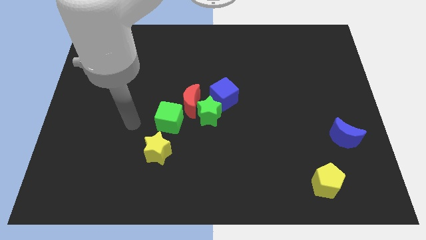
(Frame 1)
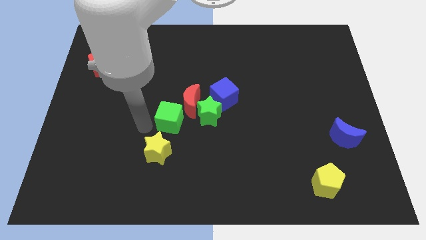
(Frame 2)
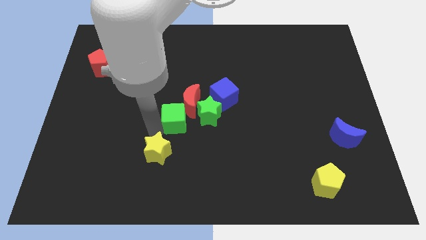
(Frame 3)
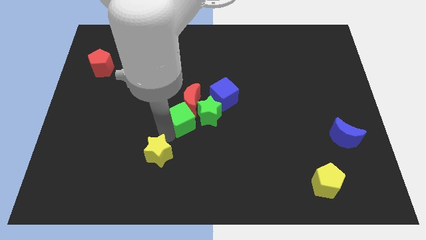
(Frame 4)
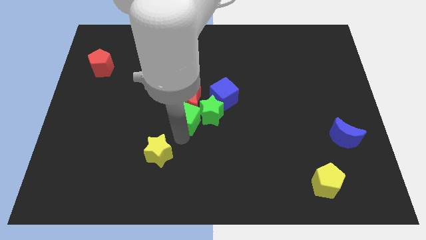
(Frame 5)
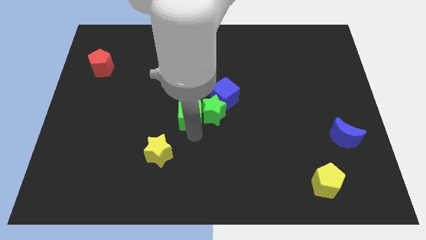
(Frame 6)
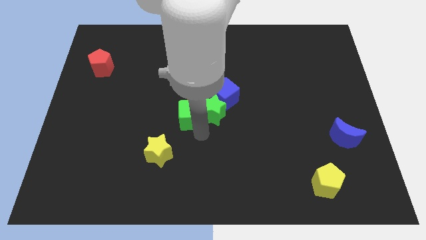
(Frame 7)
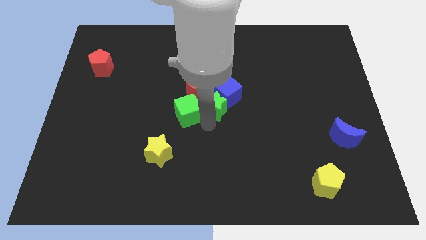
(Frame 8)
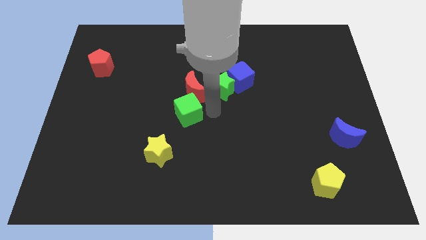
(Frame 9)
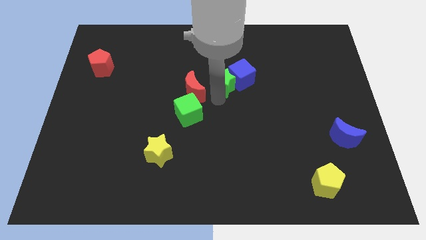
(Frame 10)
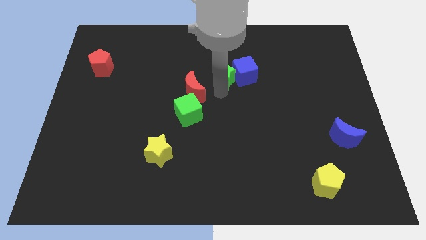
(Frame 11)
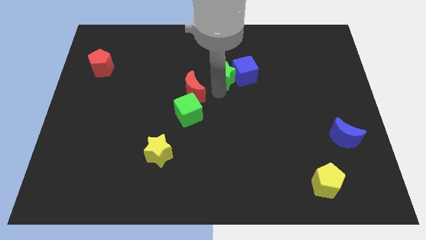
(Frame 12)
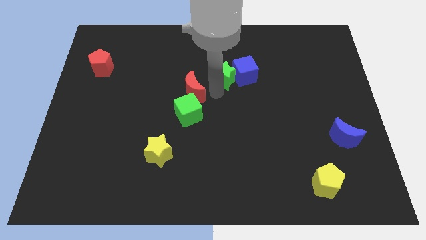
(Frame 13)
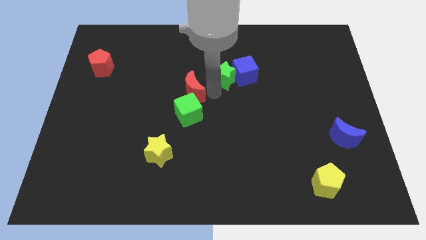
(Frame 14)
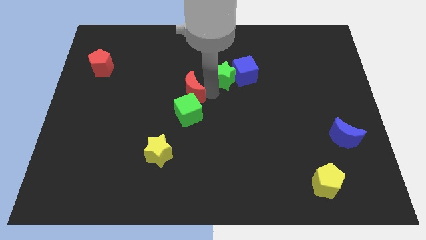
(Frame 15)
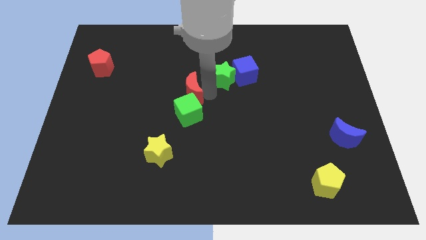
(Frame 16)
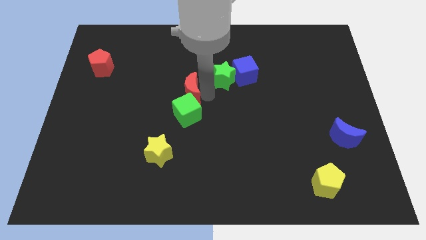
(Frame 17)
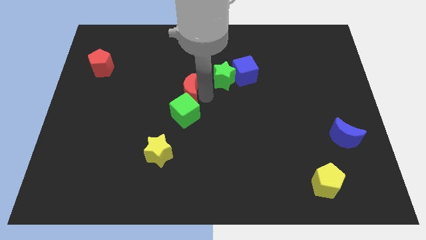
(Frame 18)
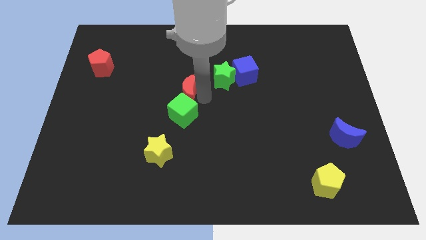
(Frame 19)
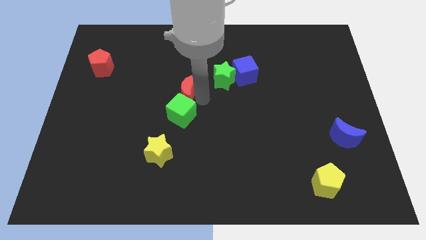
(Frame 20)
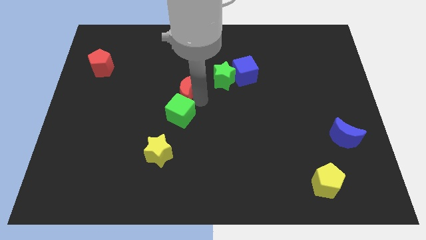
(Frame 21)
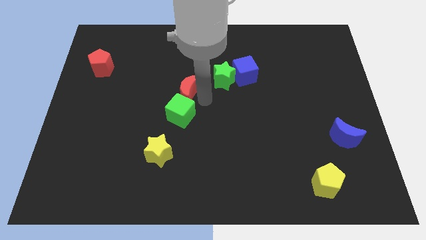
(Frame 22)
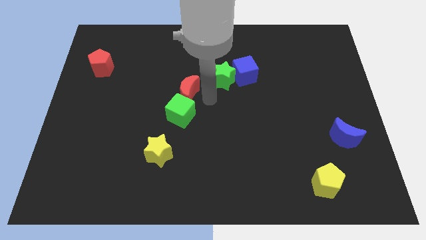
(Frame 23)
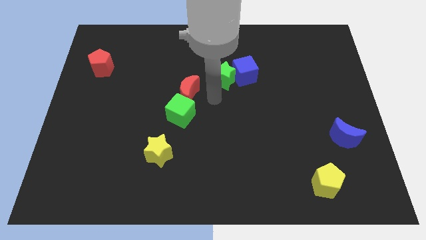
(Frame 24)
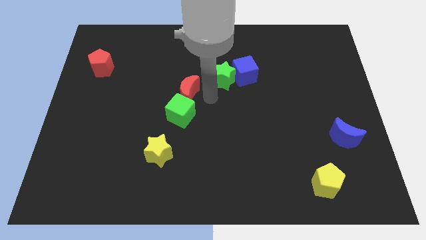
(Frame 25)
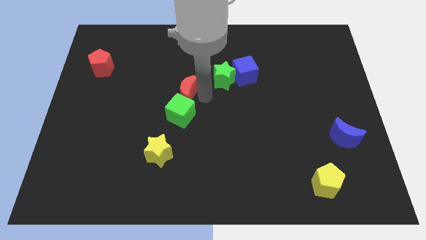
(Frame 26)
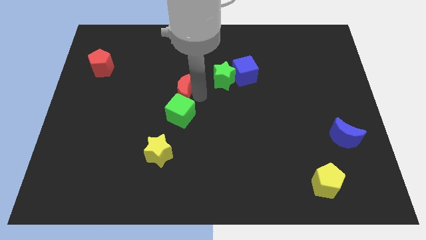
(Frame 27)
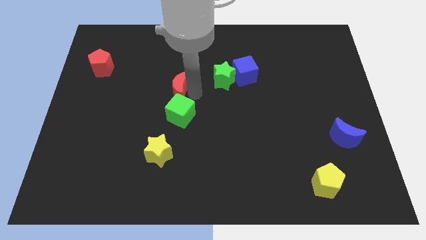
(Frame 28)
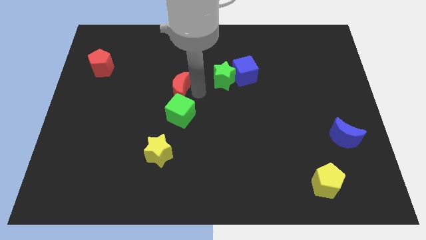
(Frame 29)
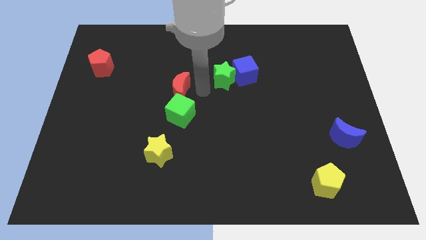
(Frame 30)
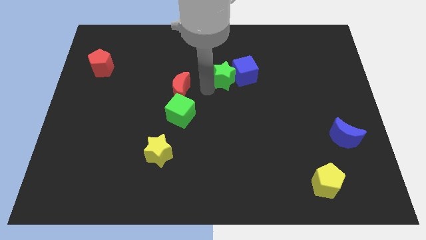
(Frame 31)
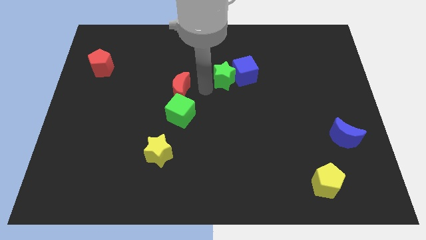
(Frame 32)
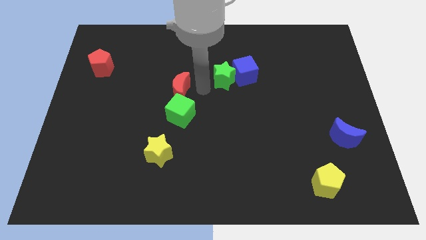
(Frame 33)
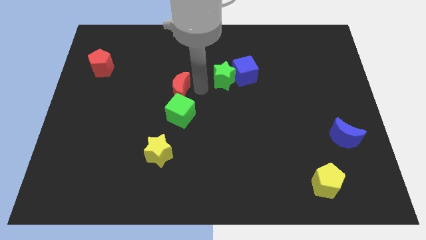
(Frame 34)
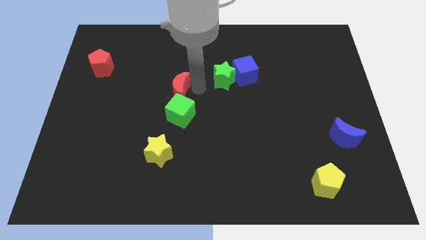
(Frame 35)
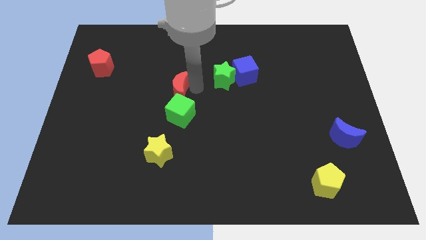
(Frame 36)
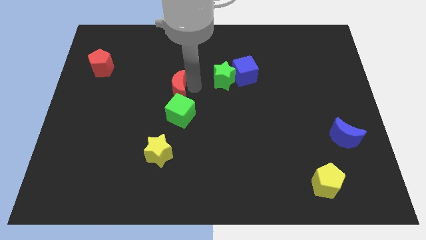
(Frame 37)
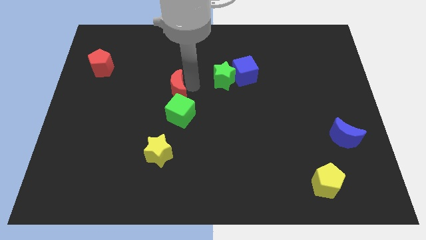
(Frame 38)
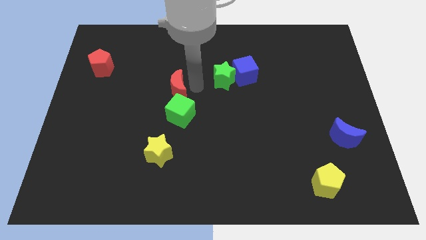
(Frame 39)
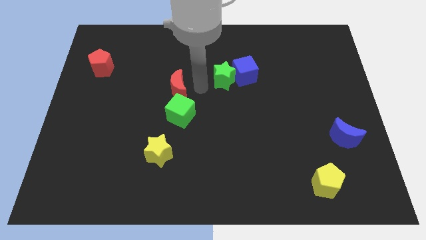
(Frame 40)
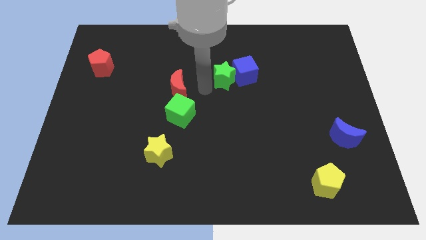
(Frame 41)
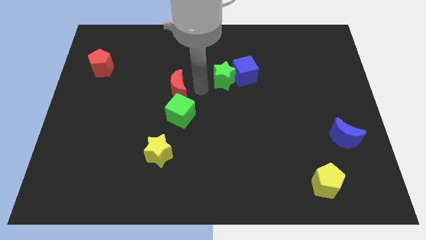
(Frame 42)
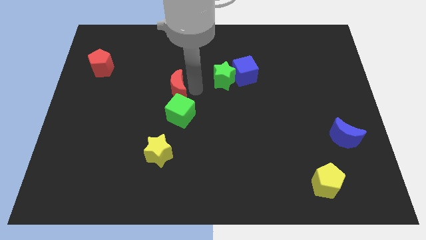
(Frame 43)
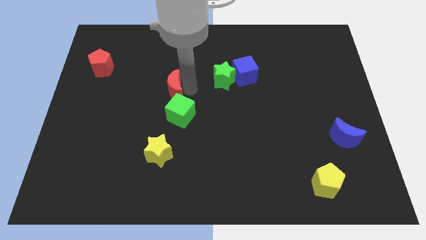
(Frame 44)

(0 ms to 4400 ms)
move the red moon away from the group

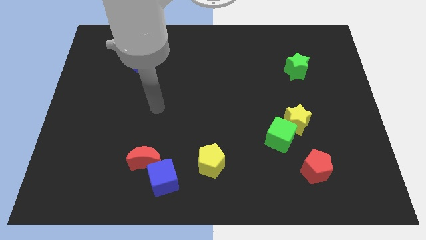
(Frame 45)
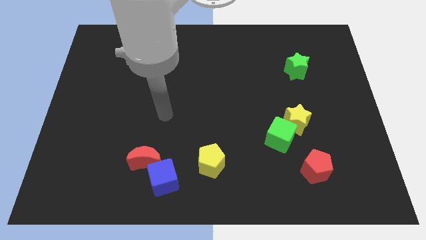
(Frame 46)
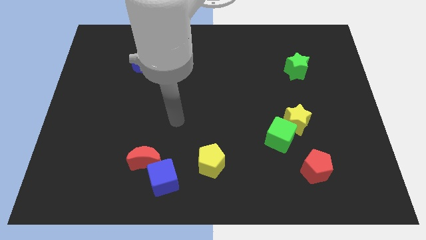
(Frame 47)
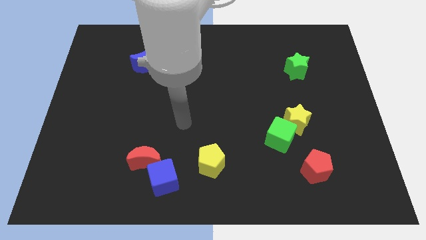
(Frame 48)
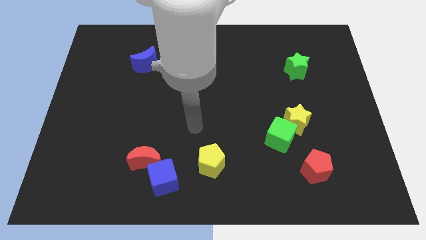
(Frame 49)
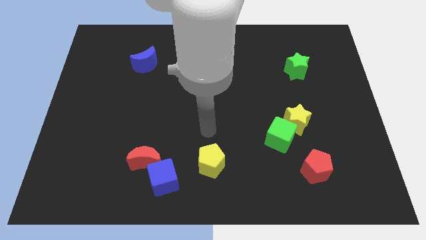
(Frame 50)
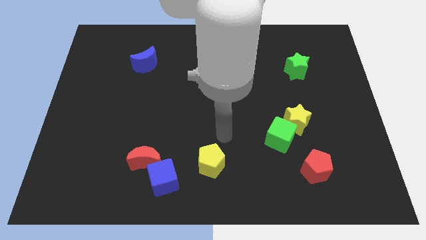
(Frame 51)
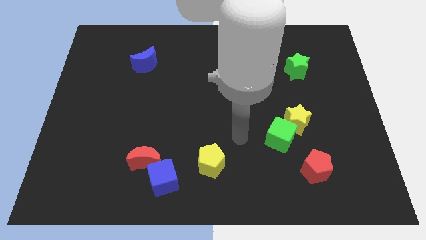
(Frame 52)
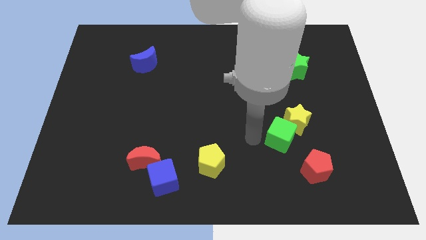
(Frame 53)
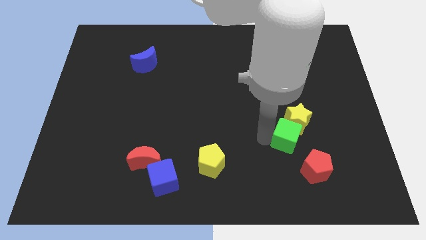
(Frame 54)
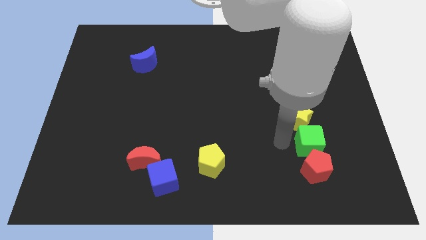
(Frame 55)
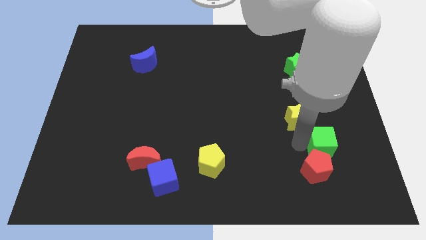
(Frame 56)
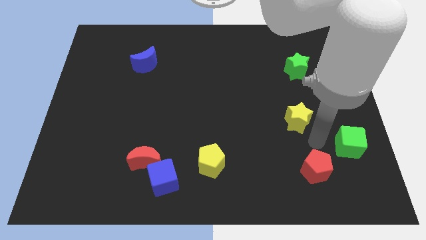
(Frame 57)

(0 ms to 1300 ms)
separate the yellow star from the green cube

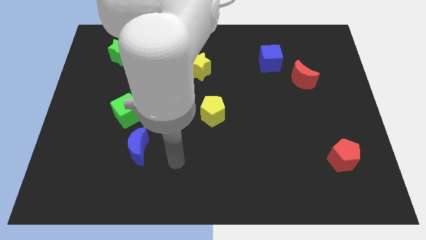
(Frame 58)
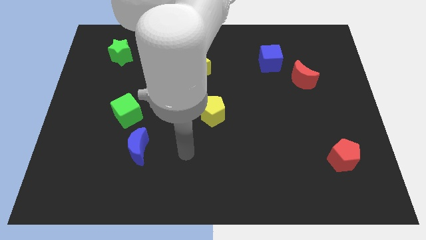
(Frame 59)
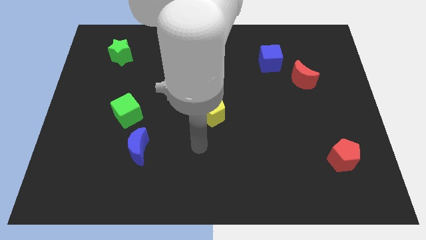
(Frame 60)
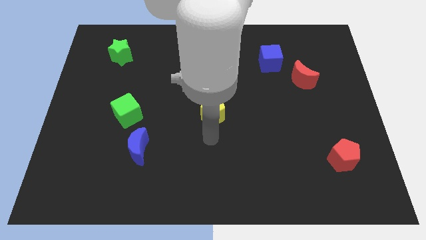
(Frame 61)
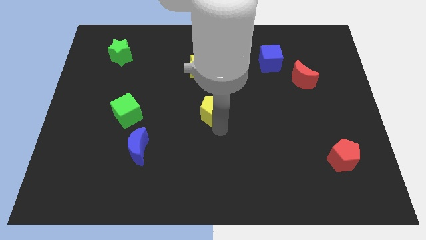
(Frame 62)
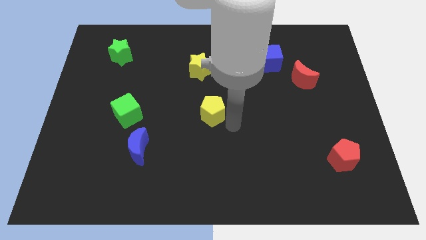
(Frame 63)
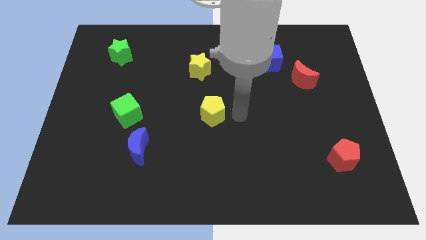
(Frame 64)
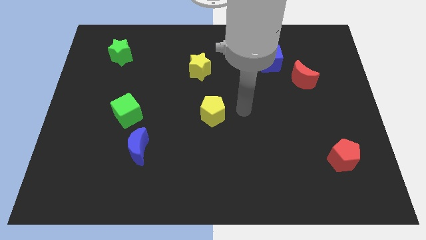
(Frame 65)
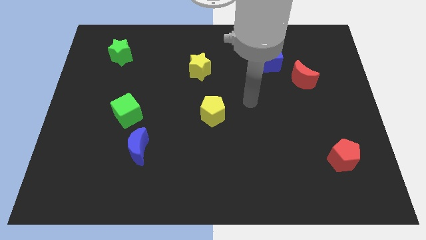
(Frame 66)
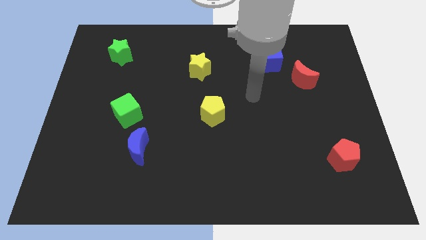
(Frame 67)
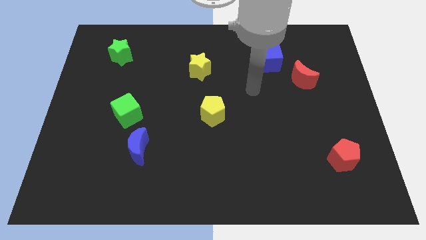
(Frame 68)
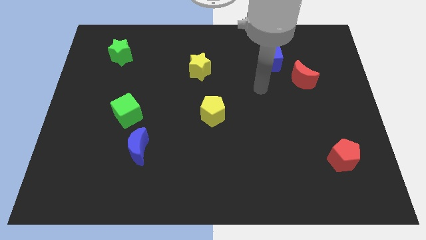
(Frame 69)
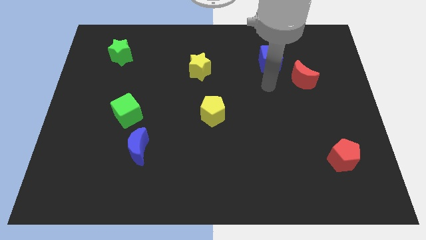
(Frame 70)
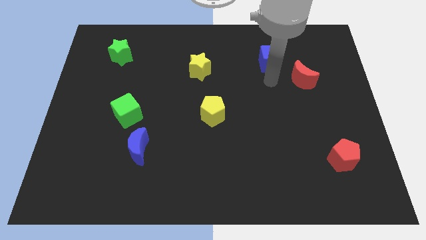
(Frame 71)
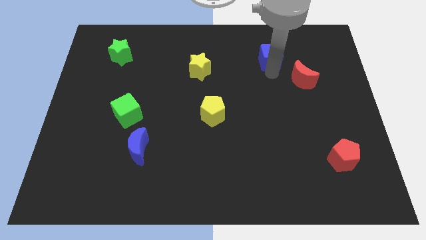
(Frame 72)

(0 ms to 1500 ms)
pull the red moon apart from the blue cube

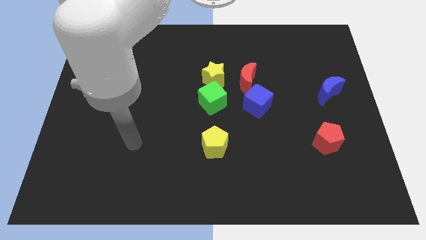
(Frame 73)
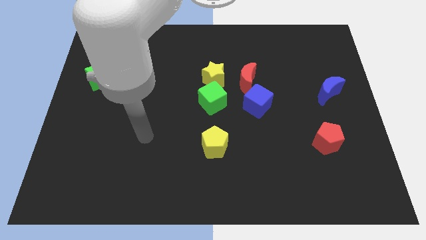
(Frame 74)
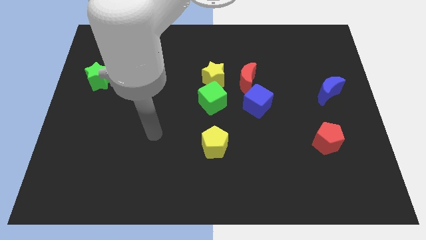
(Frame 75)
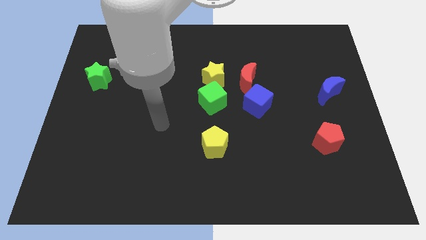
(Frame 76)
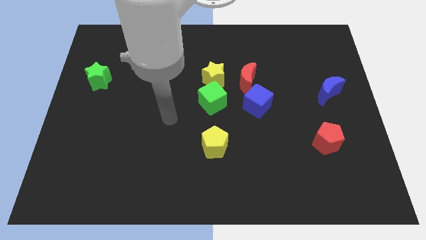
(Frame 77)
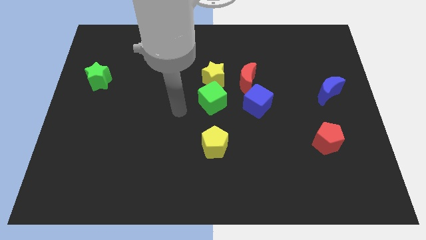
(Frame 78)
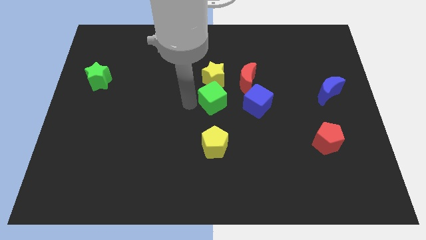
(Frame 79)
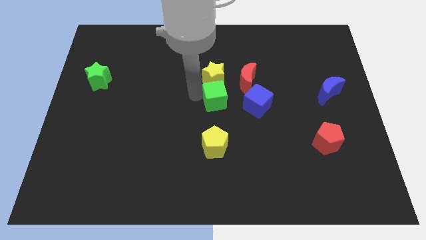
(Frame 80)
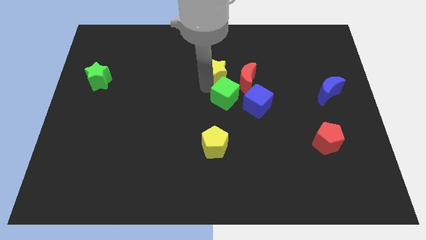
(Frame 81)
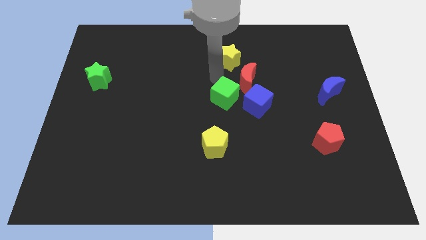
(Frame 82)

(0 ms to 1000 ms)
pull the green cube apart from the yellow star

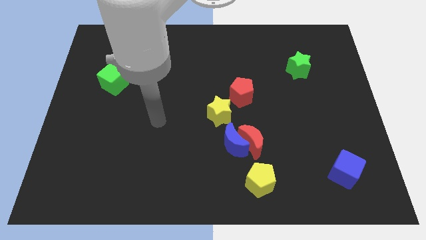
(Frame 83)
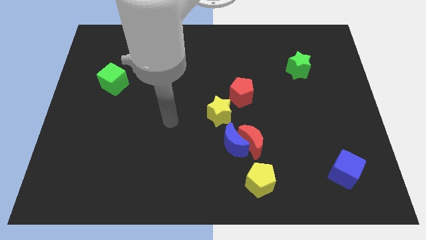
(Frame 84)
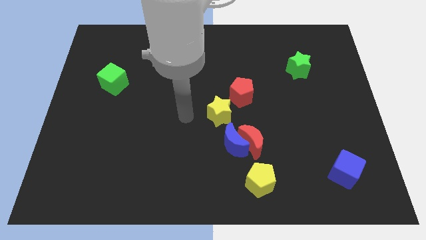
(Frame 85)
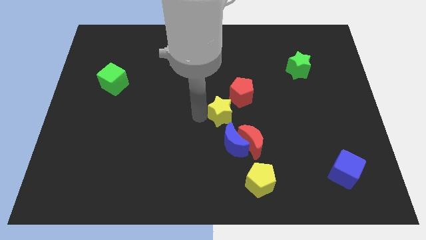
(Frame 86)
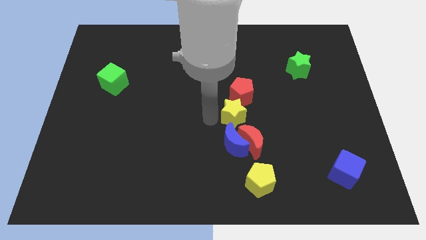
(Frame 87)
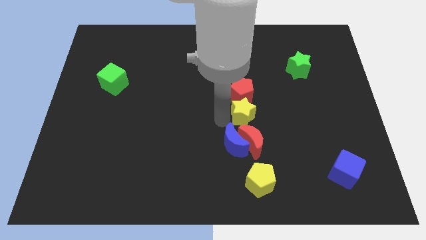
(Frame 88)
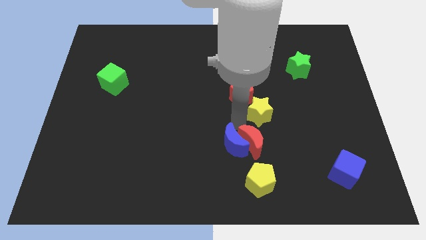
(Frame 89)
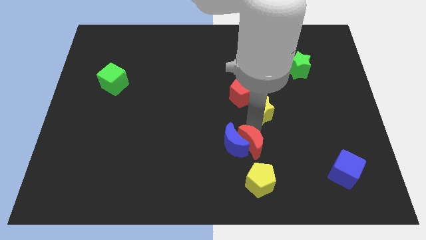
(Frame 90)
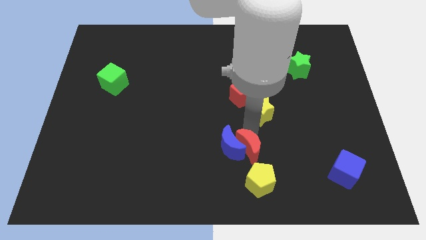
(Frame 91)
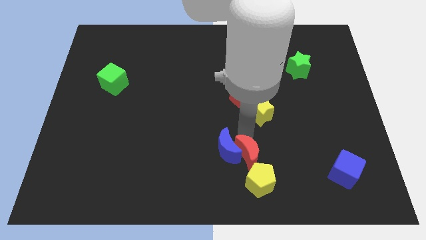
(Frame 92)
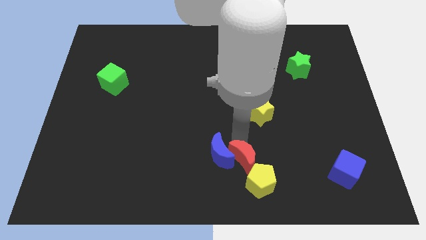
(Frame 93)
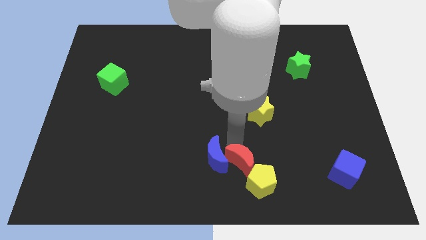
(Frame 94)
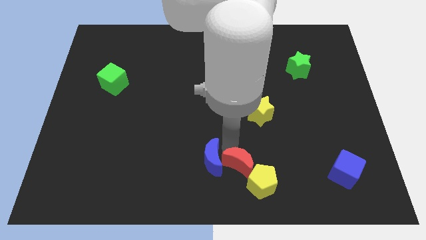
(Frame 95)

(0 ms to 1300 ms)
move the blue moon away from the red moon and yellow star
